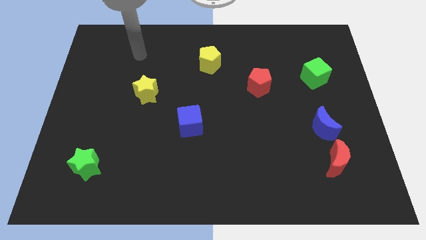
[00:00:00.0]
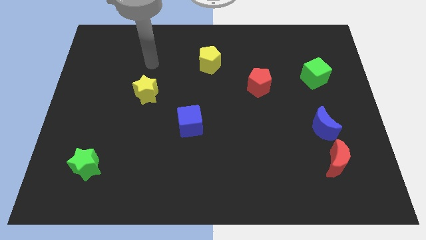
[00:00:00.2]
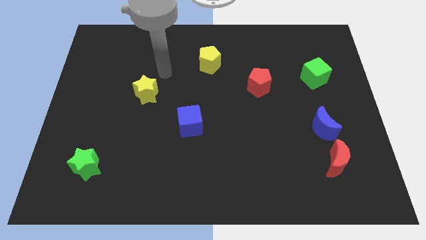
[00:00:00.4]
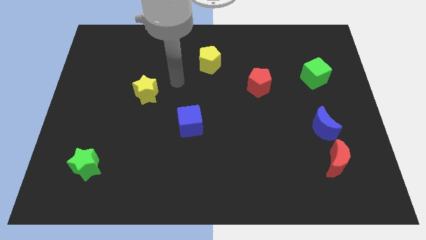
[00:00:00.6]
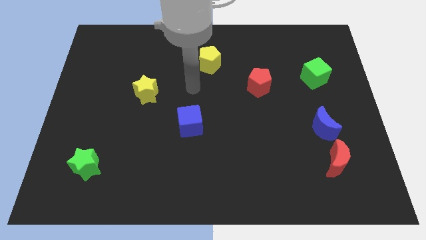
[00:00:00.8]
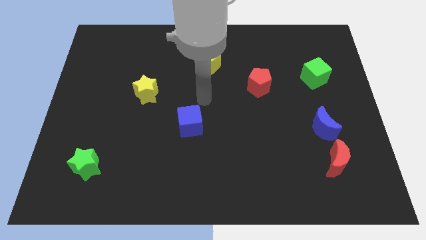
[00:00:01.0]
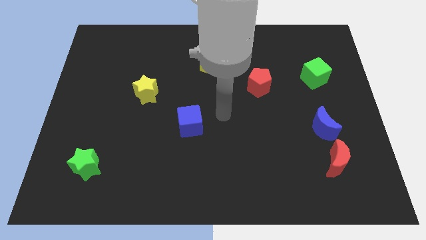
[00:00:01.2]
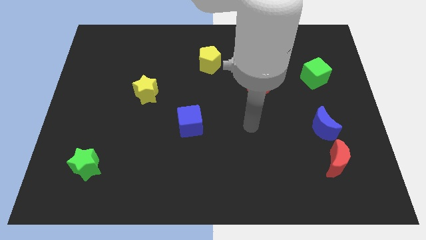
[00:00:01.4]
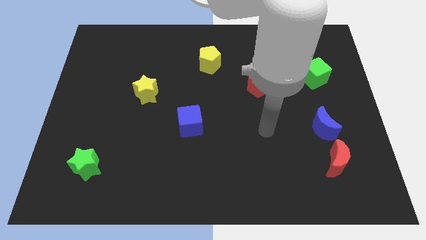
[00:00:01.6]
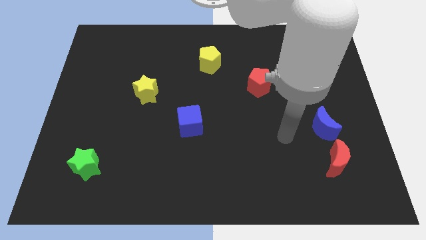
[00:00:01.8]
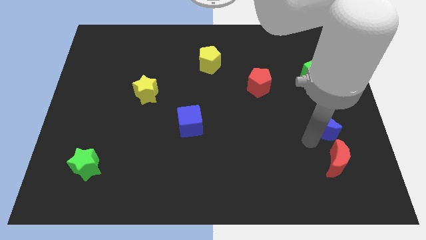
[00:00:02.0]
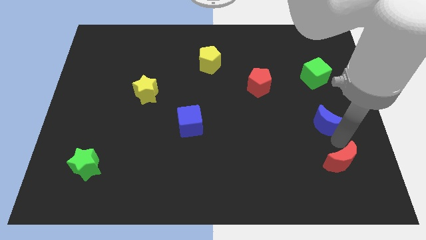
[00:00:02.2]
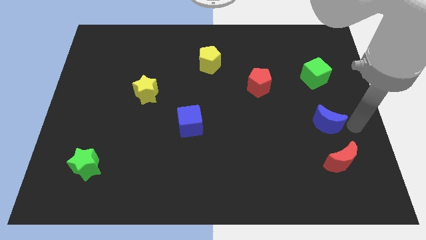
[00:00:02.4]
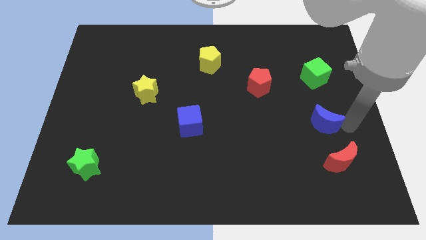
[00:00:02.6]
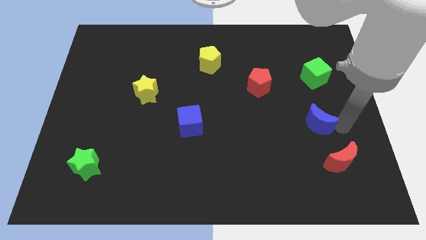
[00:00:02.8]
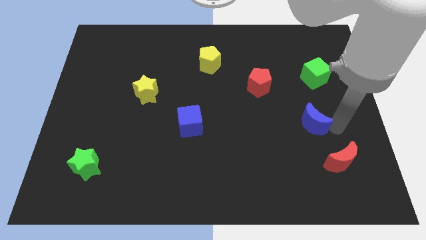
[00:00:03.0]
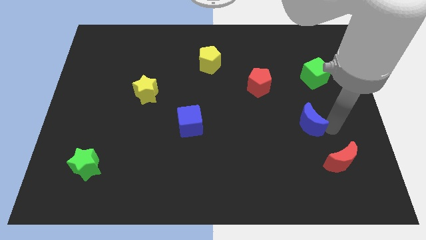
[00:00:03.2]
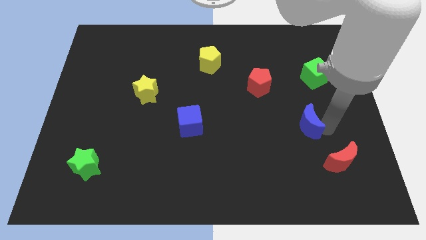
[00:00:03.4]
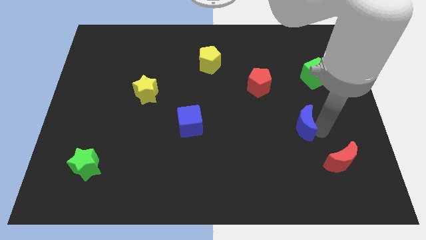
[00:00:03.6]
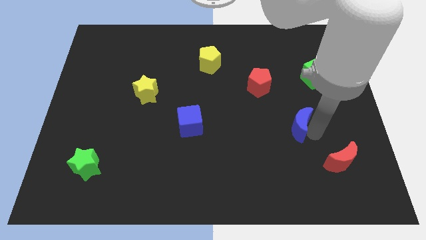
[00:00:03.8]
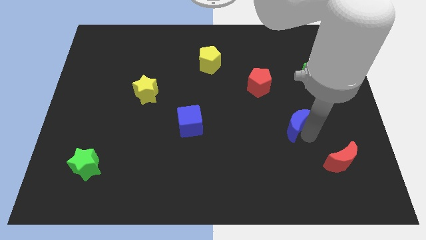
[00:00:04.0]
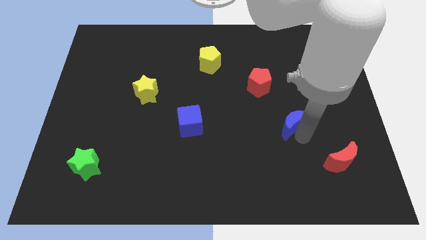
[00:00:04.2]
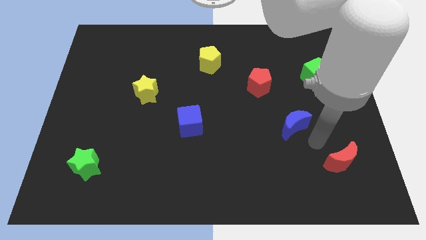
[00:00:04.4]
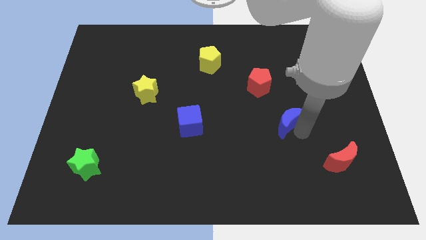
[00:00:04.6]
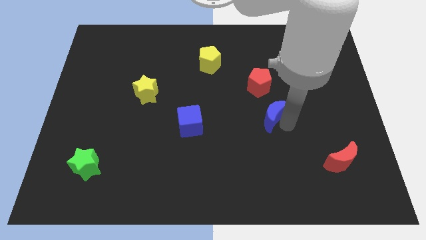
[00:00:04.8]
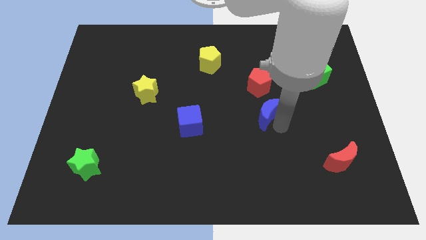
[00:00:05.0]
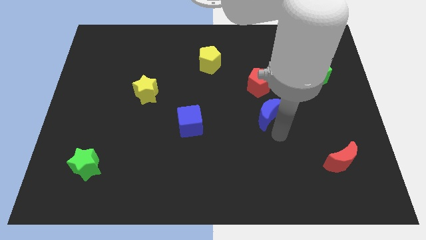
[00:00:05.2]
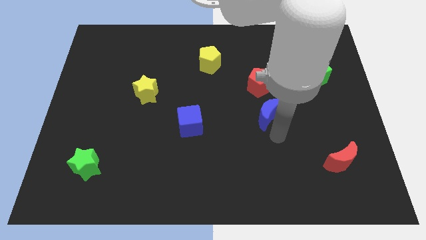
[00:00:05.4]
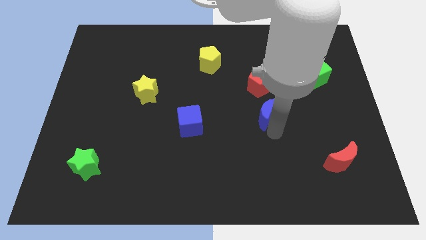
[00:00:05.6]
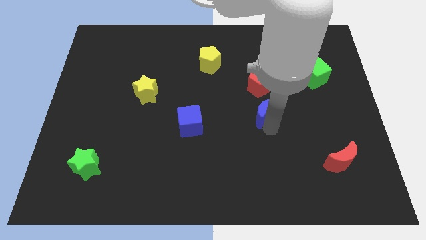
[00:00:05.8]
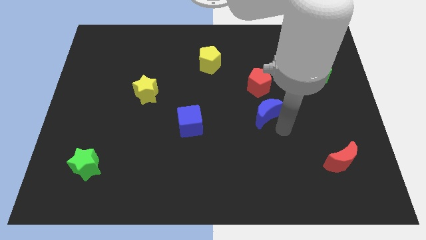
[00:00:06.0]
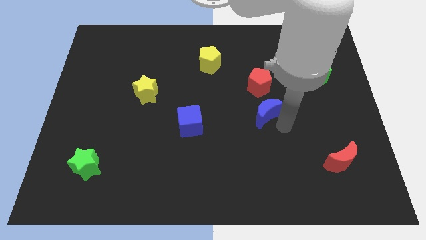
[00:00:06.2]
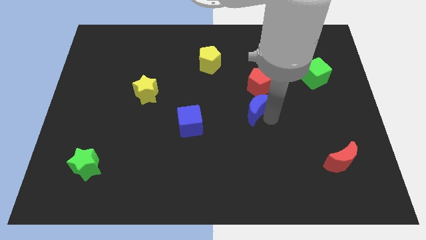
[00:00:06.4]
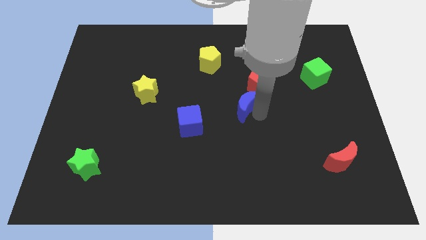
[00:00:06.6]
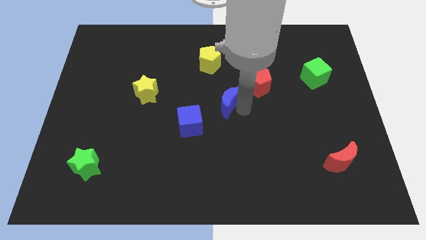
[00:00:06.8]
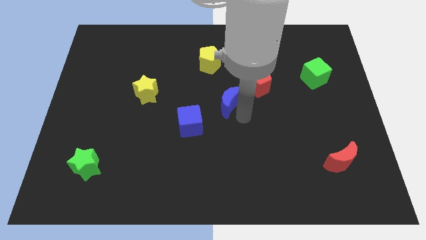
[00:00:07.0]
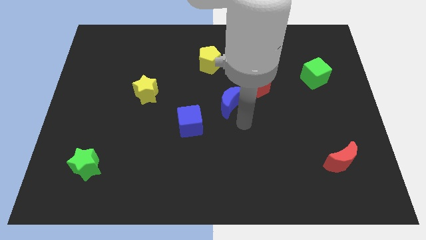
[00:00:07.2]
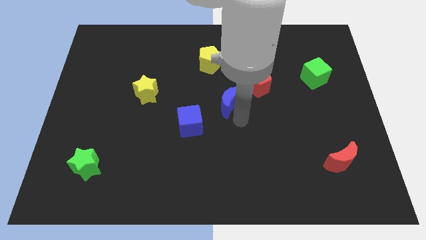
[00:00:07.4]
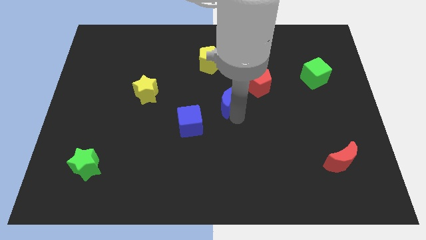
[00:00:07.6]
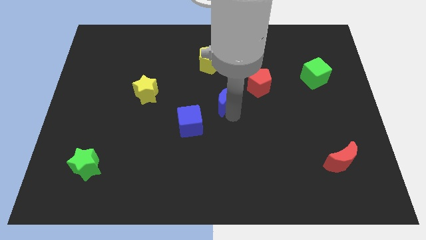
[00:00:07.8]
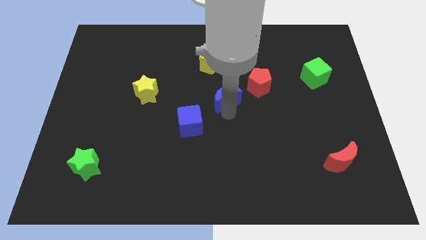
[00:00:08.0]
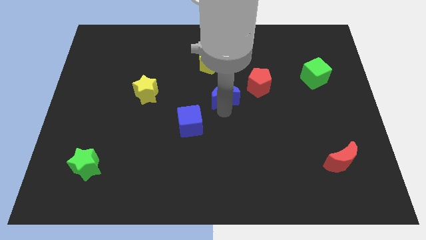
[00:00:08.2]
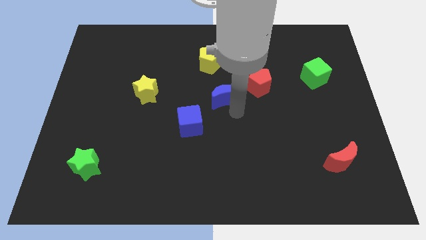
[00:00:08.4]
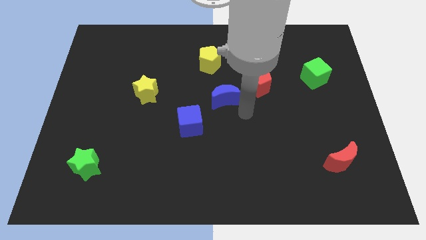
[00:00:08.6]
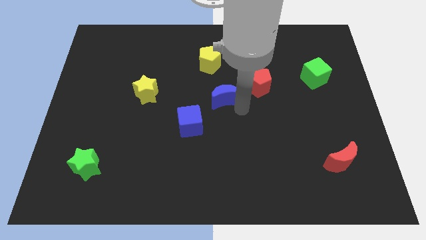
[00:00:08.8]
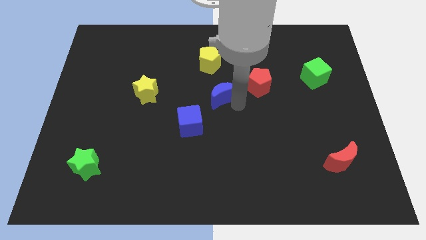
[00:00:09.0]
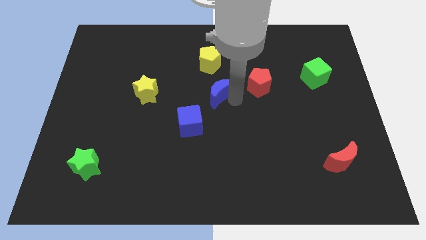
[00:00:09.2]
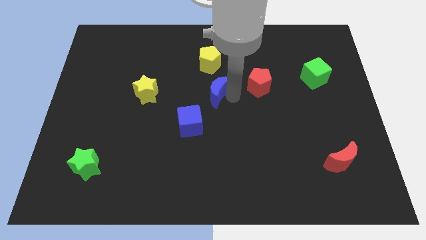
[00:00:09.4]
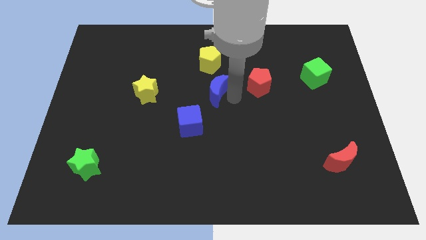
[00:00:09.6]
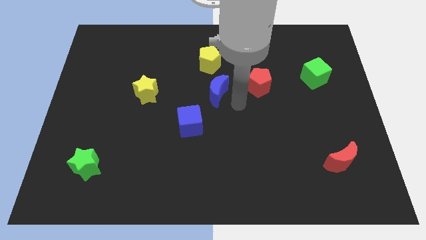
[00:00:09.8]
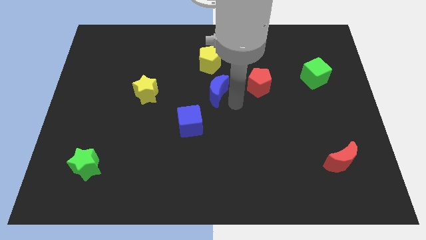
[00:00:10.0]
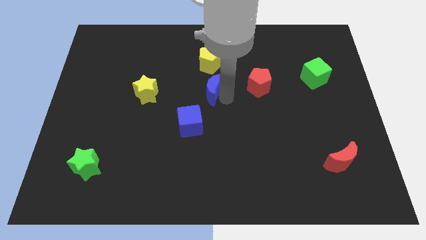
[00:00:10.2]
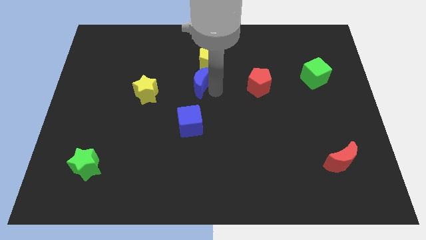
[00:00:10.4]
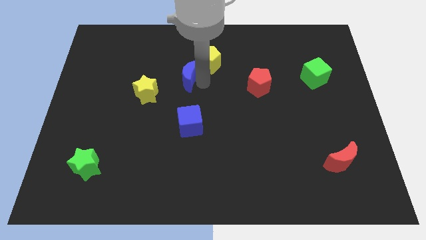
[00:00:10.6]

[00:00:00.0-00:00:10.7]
push the blue moon diagonally up and to the right of the yellow star

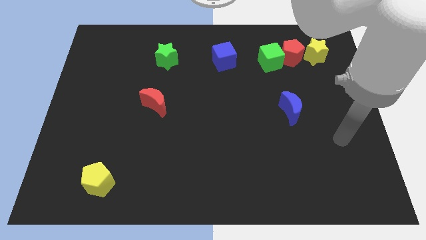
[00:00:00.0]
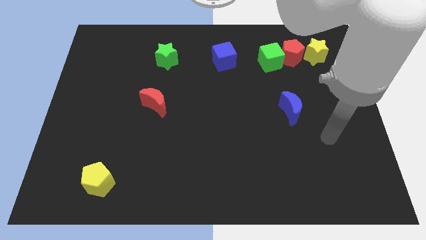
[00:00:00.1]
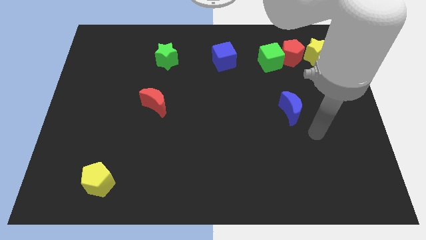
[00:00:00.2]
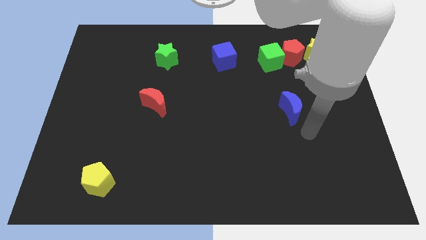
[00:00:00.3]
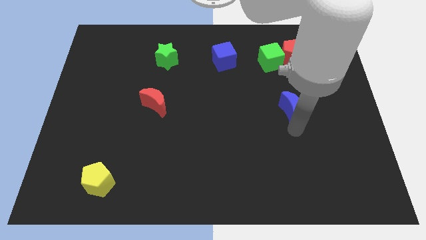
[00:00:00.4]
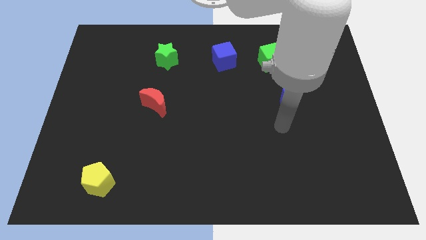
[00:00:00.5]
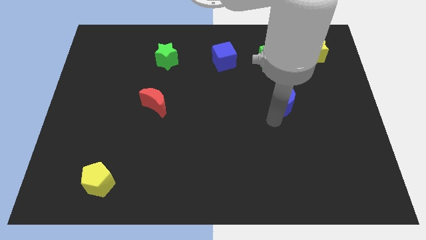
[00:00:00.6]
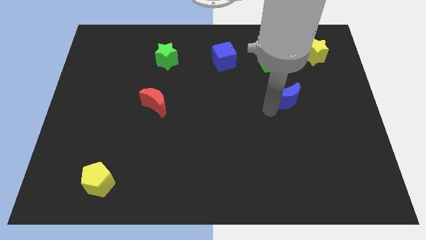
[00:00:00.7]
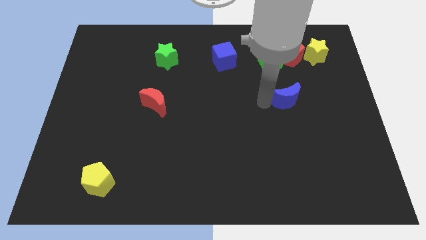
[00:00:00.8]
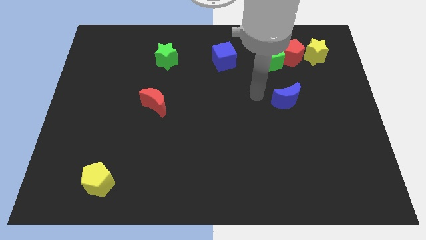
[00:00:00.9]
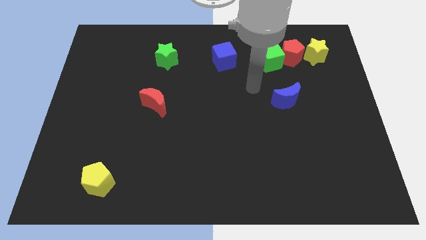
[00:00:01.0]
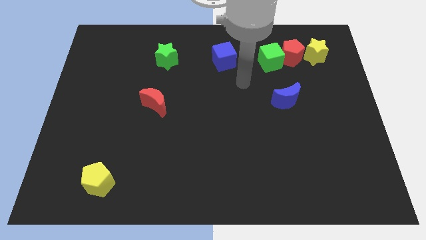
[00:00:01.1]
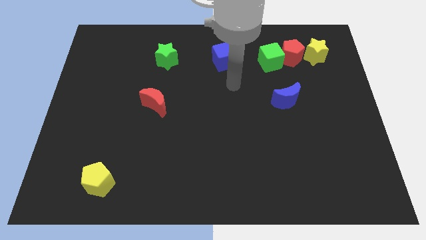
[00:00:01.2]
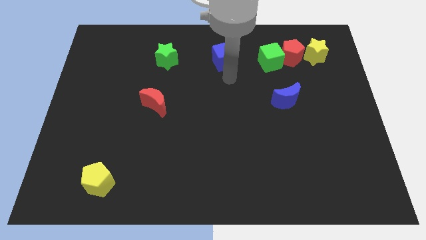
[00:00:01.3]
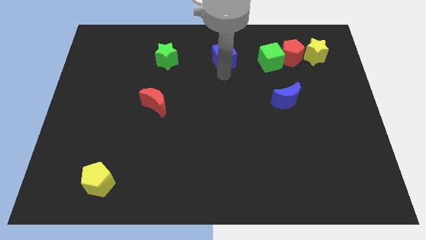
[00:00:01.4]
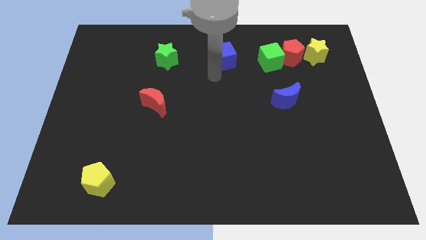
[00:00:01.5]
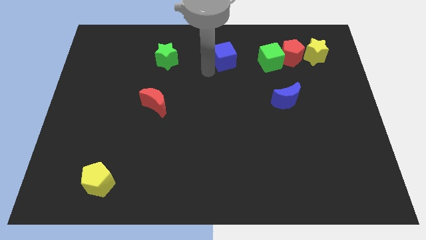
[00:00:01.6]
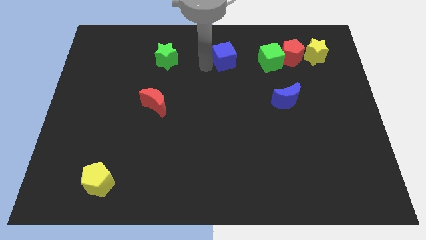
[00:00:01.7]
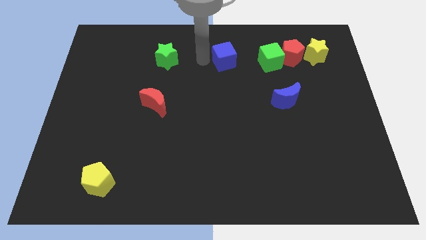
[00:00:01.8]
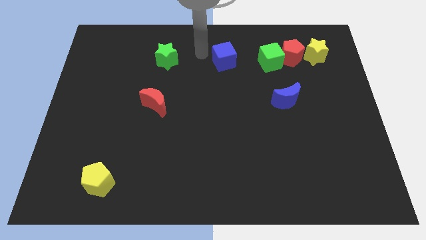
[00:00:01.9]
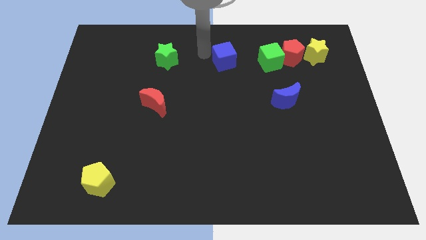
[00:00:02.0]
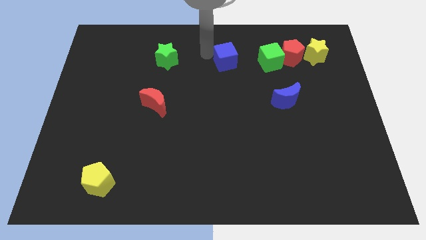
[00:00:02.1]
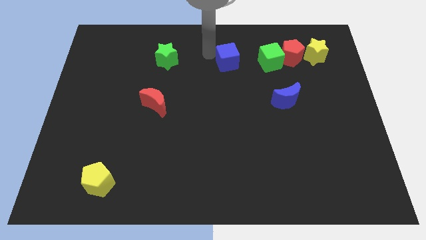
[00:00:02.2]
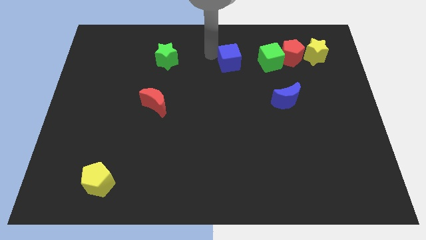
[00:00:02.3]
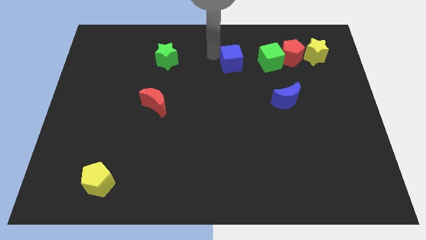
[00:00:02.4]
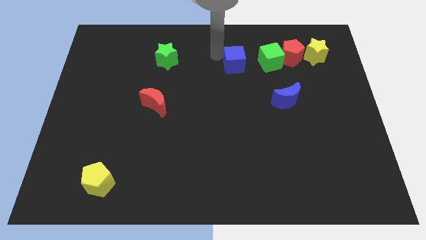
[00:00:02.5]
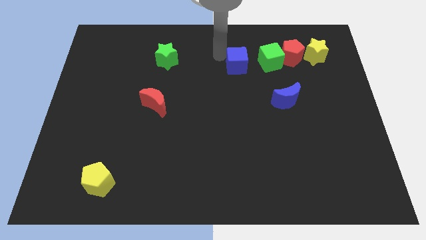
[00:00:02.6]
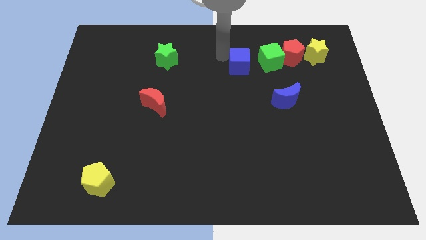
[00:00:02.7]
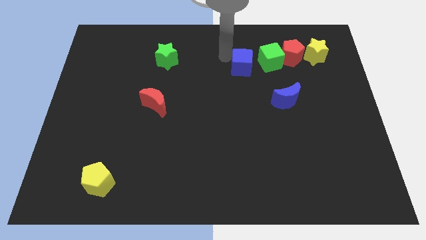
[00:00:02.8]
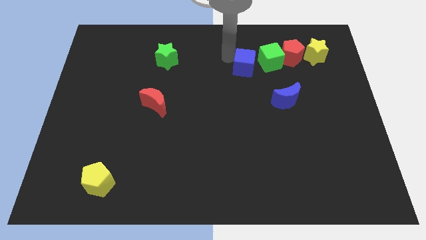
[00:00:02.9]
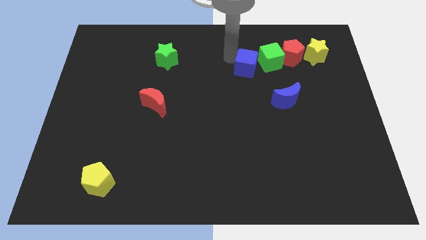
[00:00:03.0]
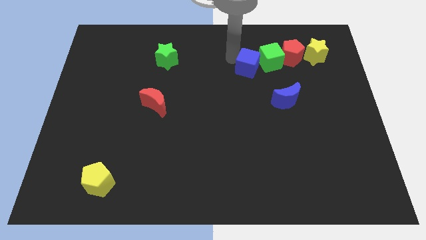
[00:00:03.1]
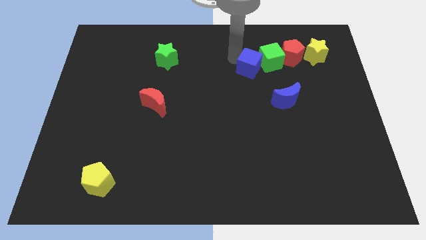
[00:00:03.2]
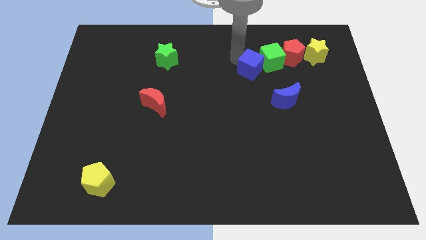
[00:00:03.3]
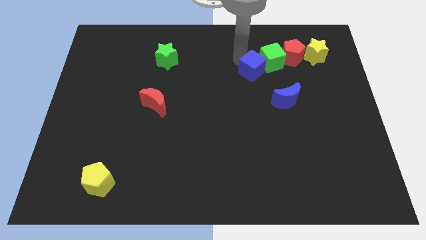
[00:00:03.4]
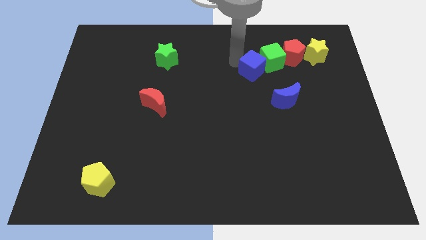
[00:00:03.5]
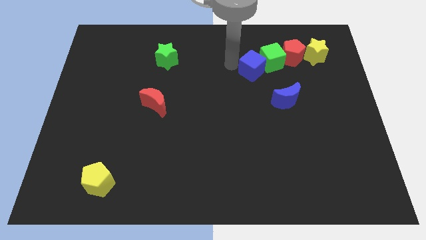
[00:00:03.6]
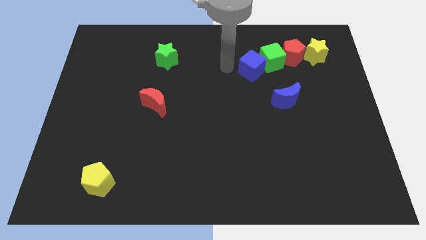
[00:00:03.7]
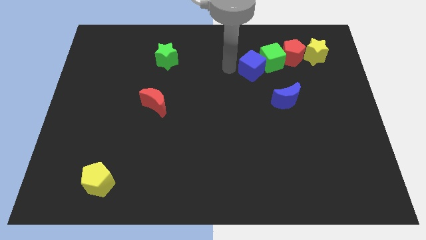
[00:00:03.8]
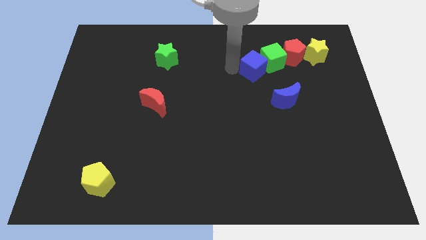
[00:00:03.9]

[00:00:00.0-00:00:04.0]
slide the blue cube to the bottom left side of the red pentagon
